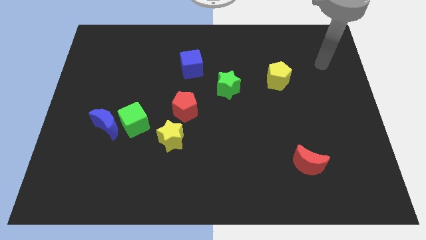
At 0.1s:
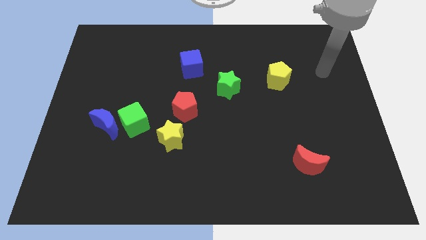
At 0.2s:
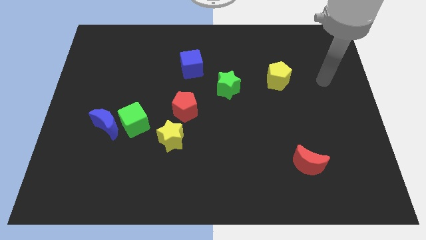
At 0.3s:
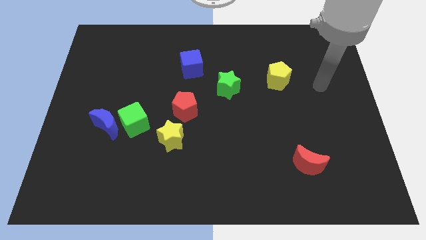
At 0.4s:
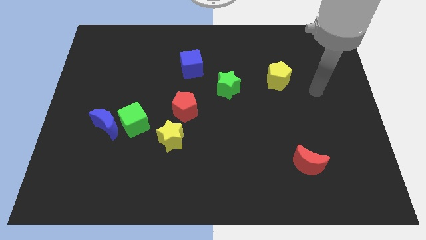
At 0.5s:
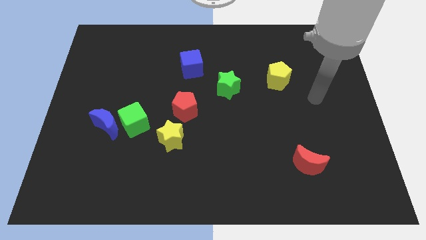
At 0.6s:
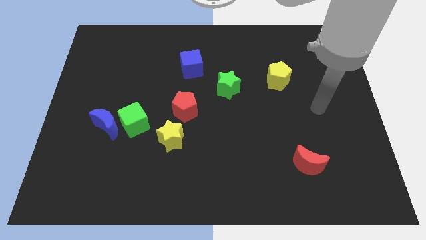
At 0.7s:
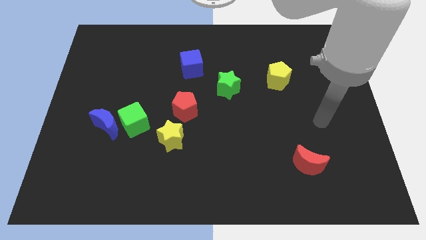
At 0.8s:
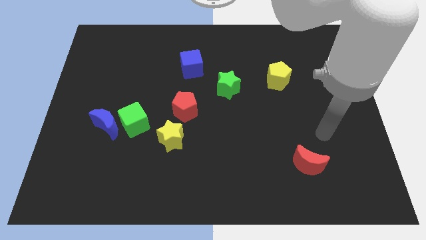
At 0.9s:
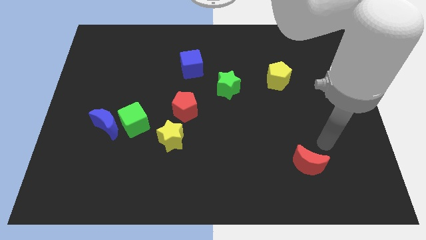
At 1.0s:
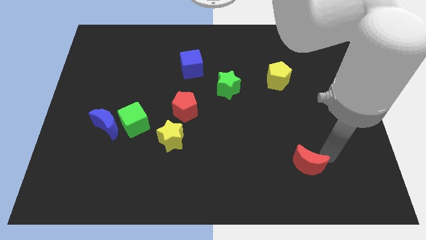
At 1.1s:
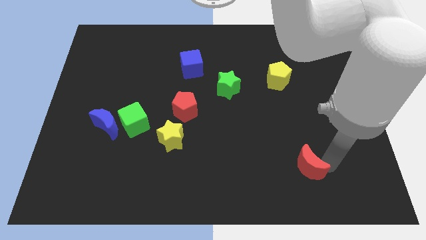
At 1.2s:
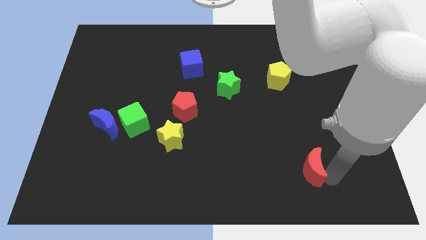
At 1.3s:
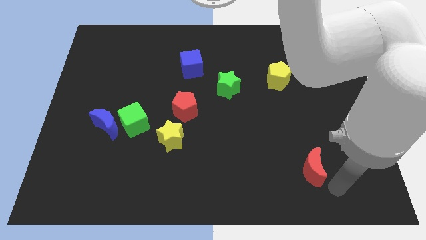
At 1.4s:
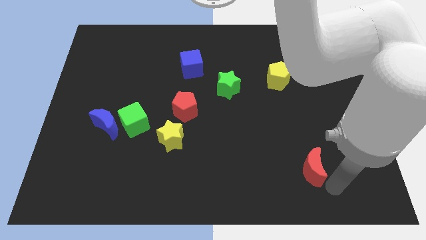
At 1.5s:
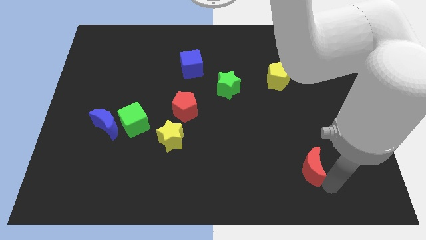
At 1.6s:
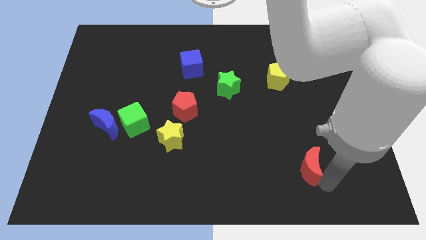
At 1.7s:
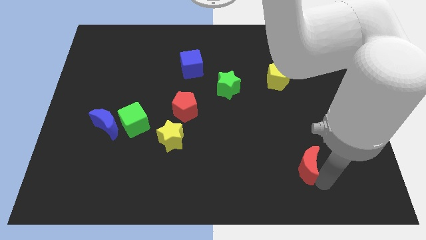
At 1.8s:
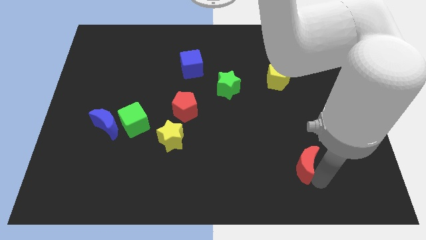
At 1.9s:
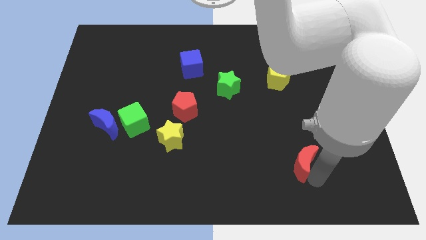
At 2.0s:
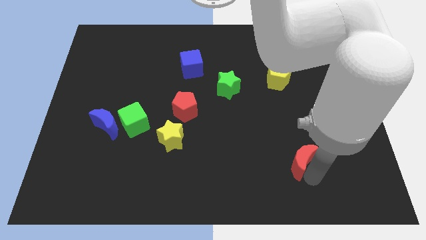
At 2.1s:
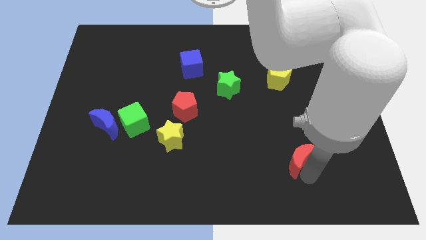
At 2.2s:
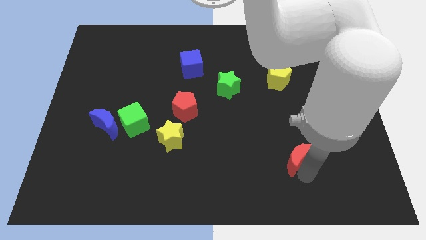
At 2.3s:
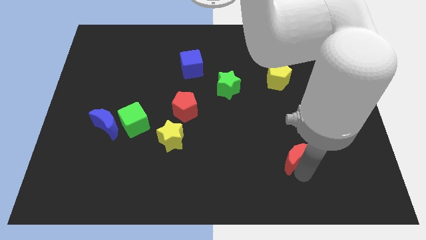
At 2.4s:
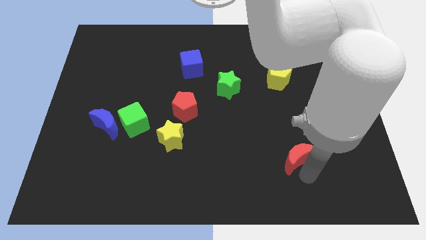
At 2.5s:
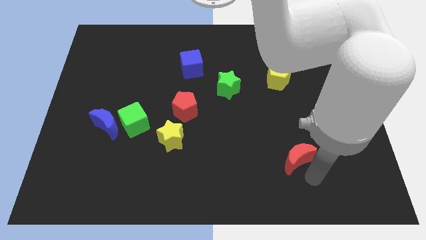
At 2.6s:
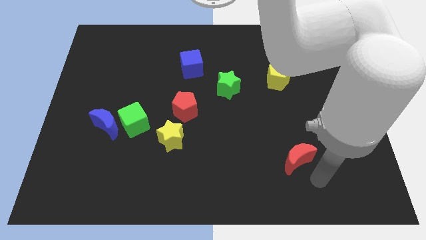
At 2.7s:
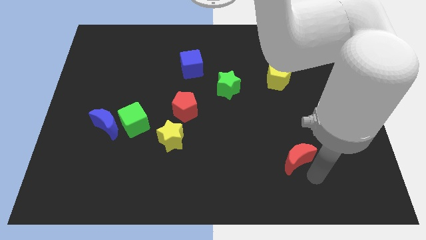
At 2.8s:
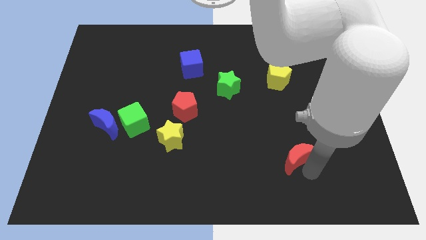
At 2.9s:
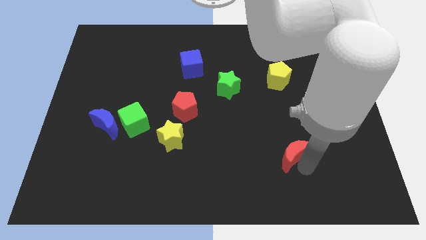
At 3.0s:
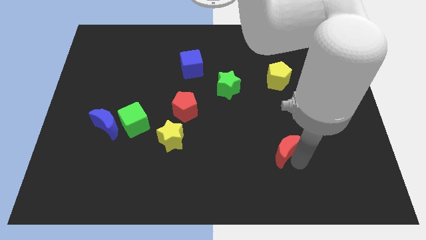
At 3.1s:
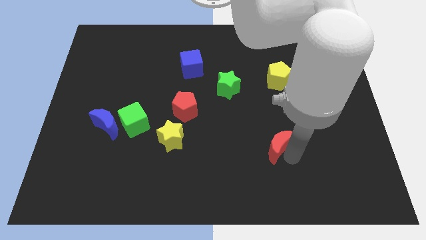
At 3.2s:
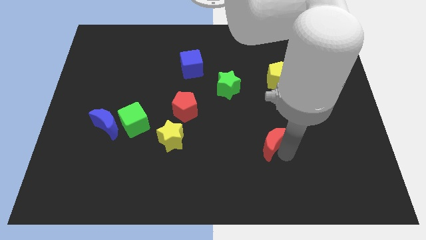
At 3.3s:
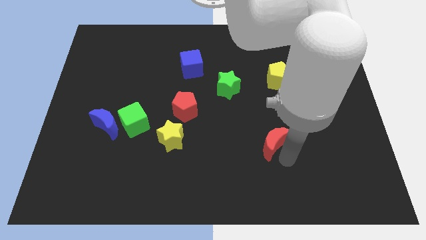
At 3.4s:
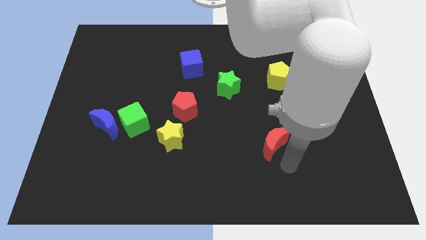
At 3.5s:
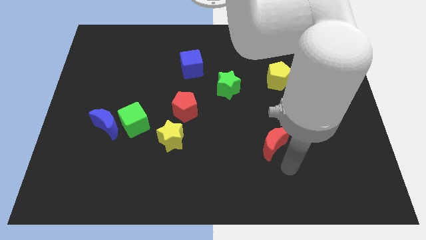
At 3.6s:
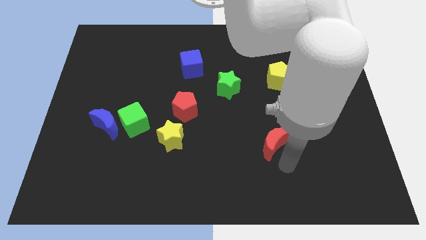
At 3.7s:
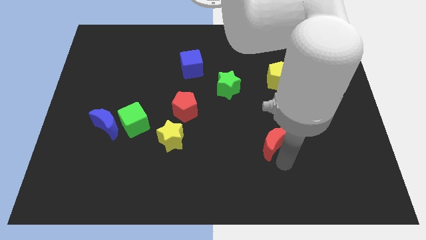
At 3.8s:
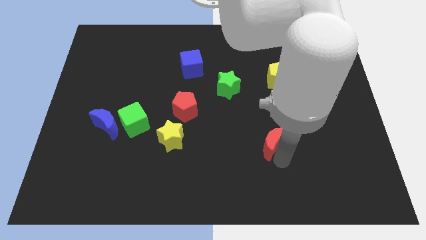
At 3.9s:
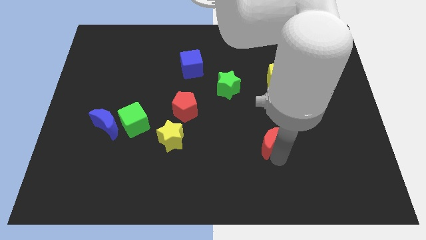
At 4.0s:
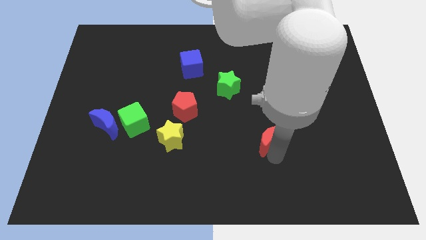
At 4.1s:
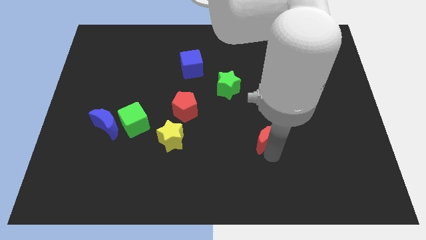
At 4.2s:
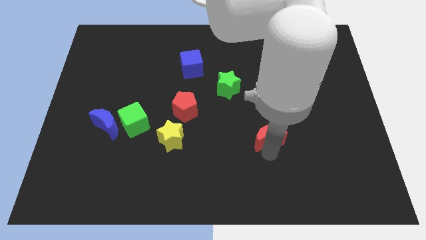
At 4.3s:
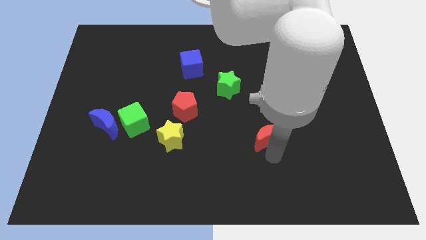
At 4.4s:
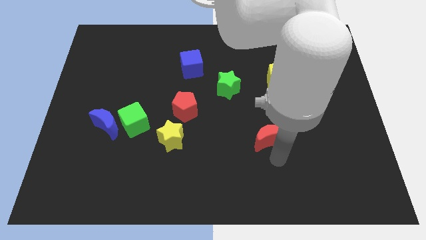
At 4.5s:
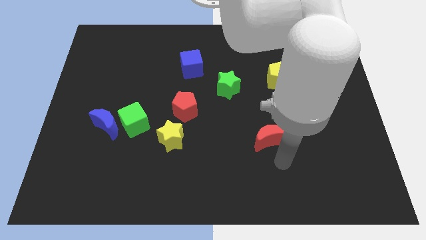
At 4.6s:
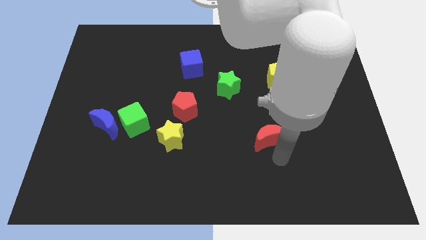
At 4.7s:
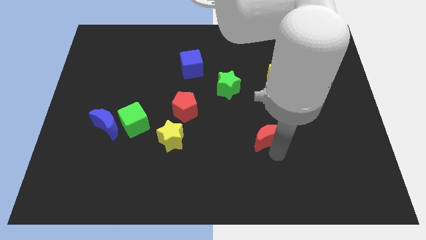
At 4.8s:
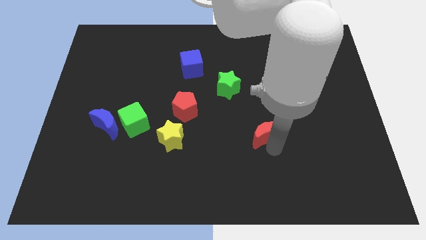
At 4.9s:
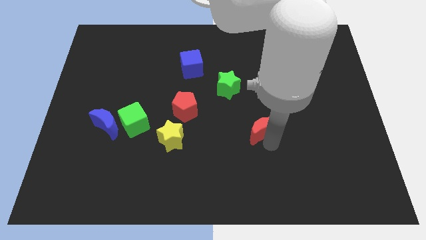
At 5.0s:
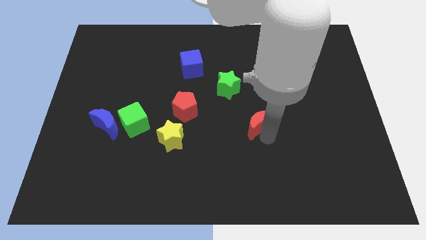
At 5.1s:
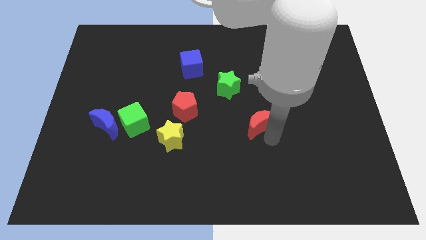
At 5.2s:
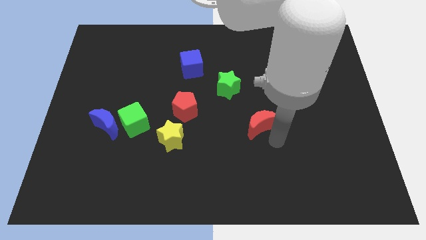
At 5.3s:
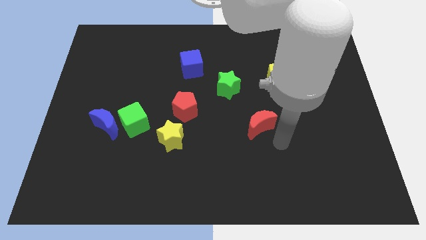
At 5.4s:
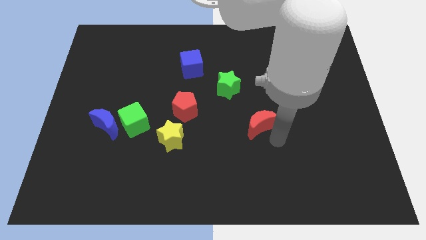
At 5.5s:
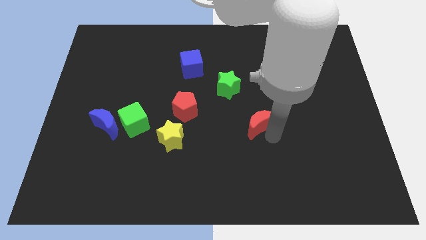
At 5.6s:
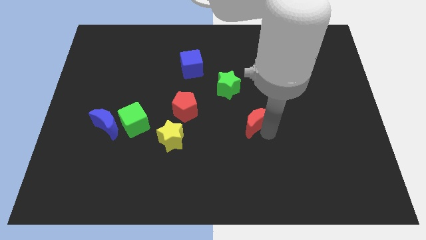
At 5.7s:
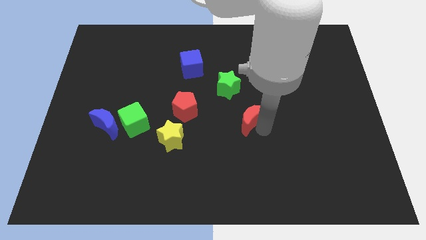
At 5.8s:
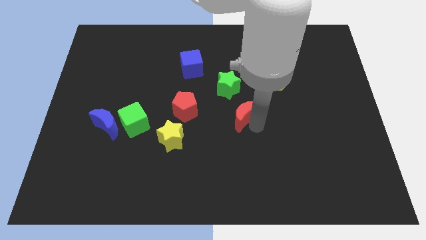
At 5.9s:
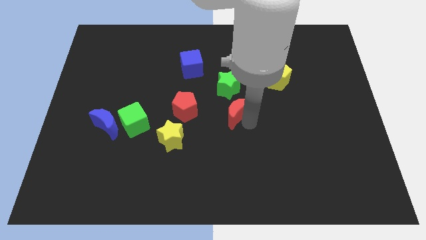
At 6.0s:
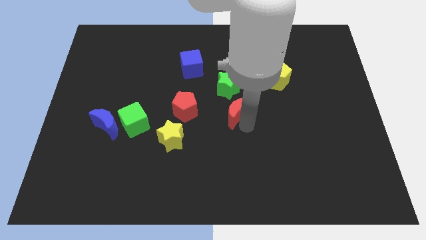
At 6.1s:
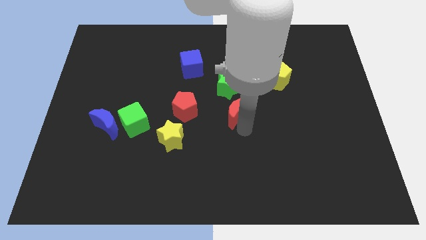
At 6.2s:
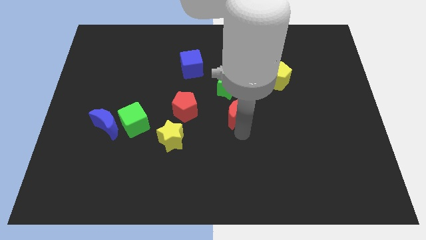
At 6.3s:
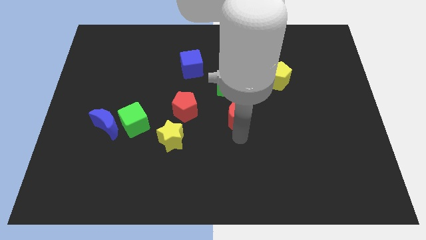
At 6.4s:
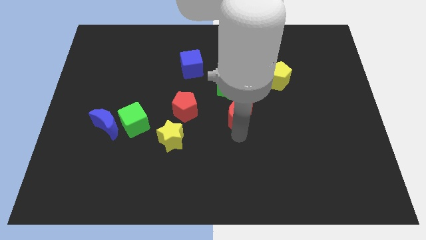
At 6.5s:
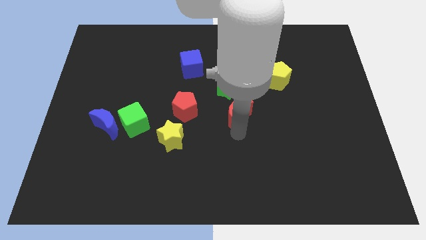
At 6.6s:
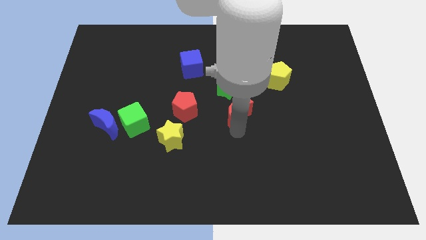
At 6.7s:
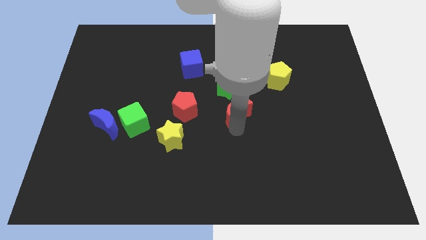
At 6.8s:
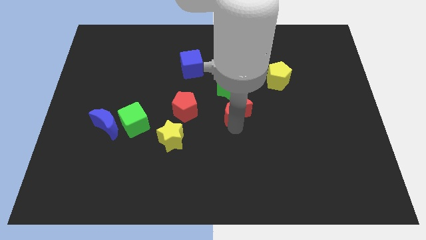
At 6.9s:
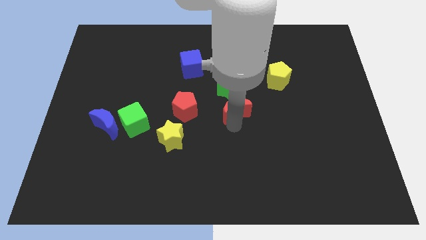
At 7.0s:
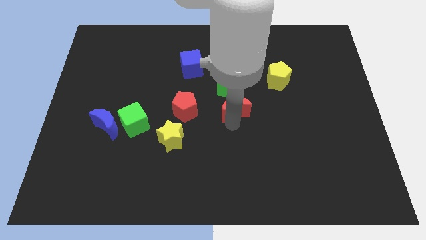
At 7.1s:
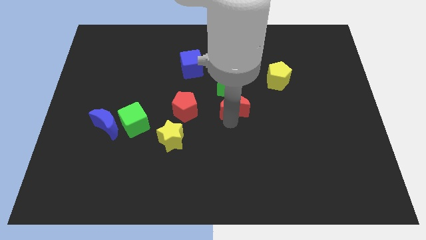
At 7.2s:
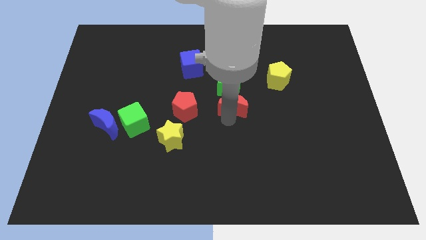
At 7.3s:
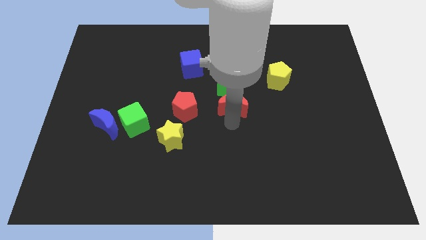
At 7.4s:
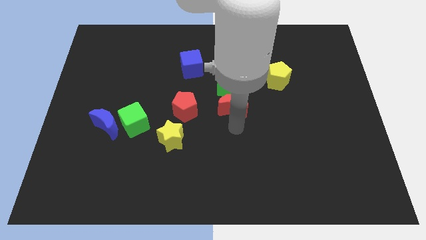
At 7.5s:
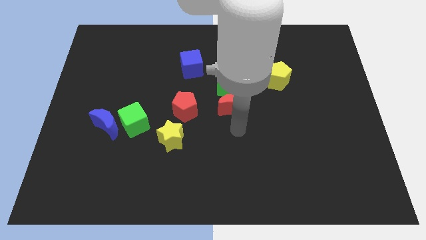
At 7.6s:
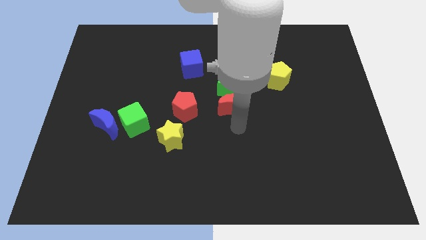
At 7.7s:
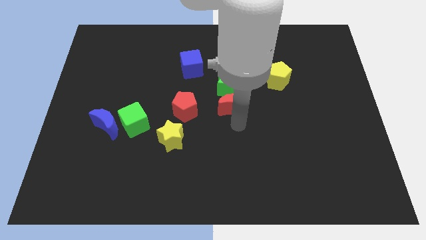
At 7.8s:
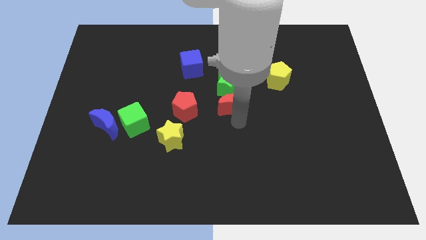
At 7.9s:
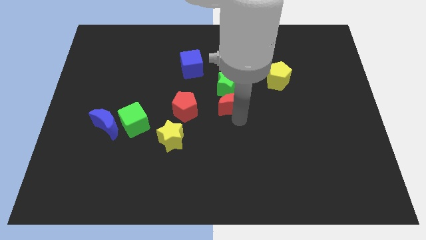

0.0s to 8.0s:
move the red moon close to the green star
